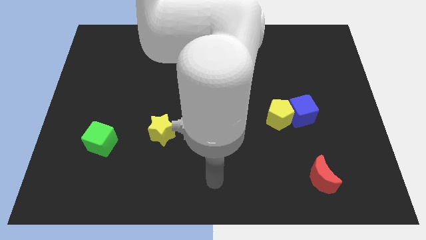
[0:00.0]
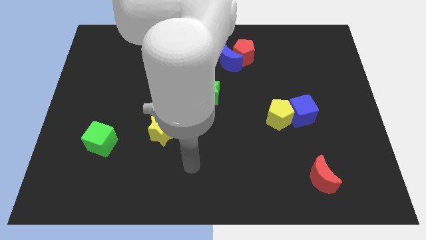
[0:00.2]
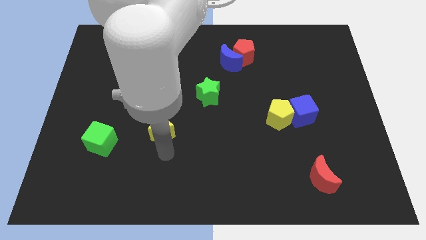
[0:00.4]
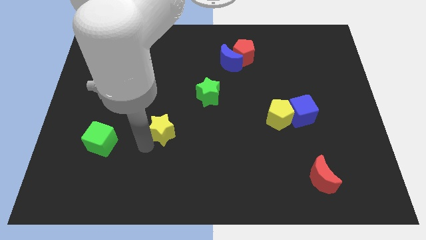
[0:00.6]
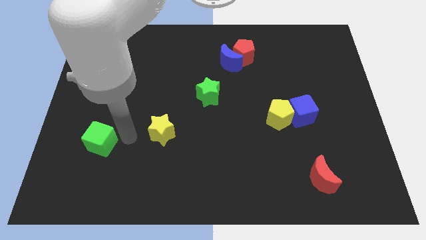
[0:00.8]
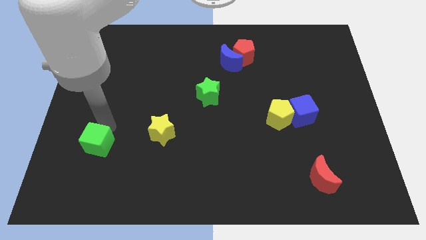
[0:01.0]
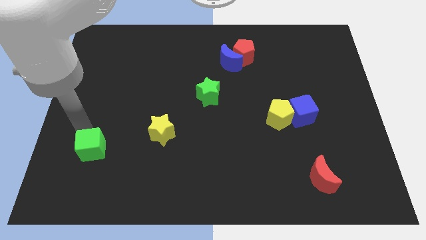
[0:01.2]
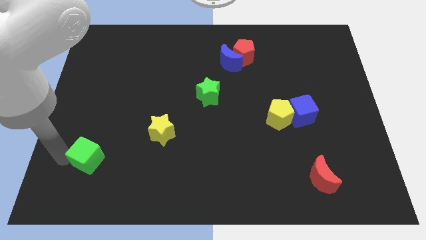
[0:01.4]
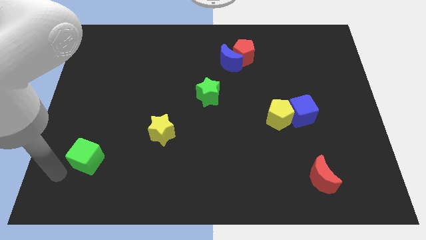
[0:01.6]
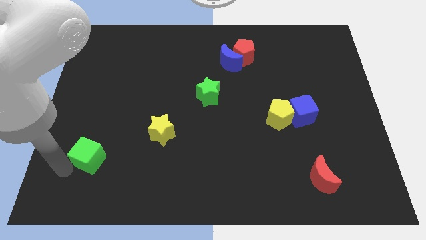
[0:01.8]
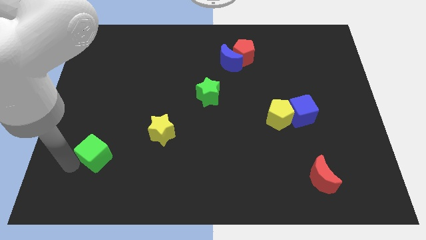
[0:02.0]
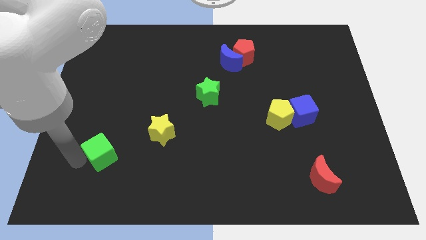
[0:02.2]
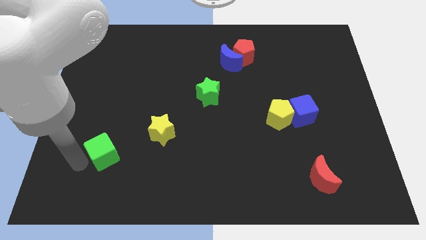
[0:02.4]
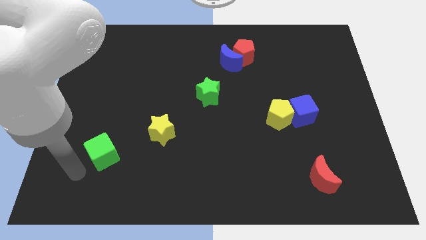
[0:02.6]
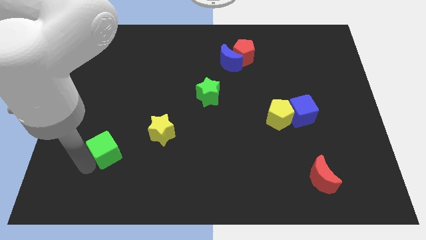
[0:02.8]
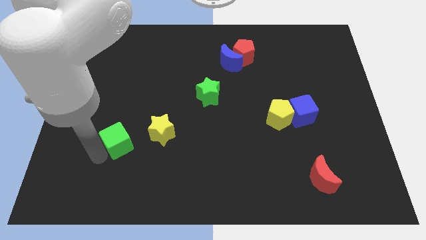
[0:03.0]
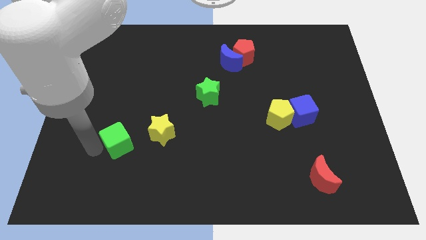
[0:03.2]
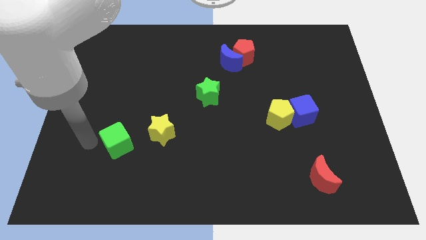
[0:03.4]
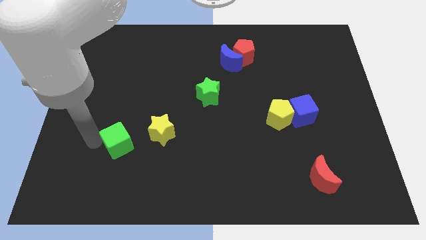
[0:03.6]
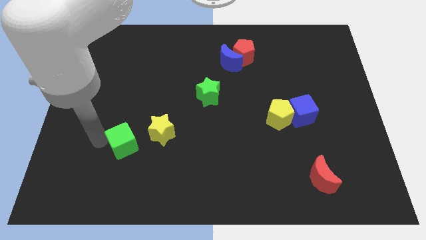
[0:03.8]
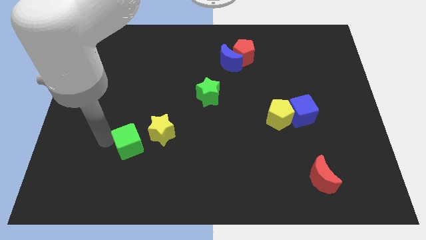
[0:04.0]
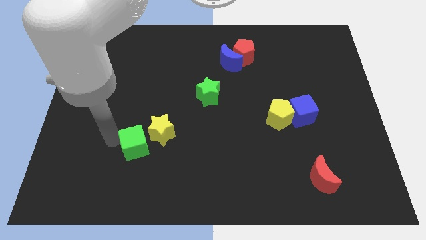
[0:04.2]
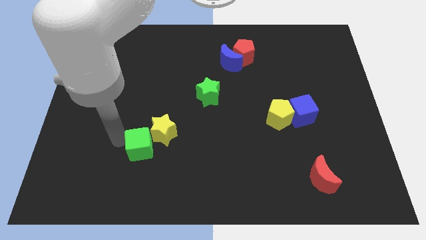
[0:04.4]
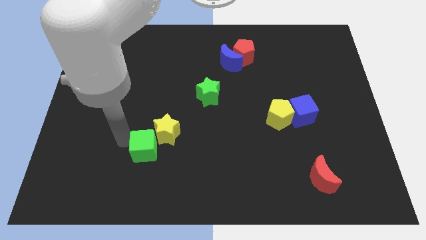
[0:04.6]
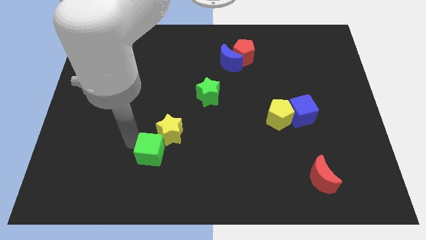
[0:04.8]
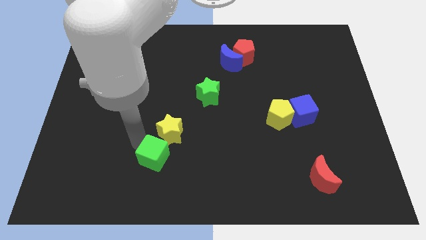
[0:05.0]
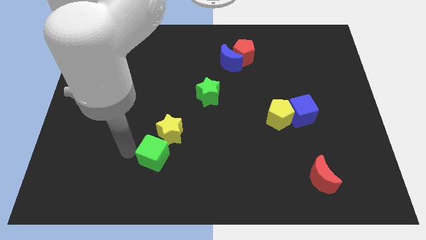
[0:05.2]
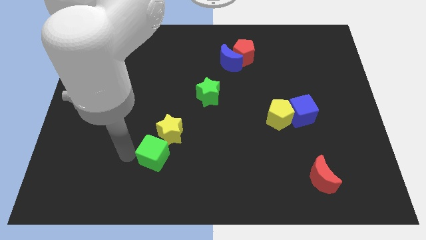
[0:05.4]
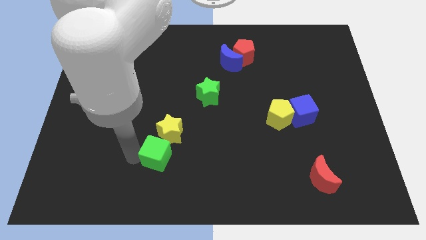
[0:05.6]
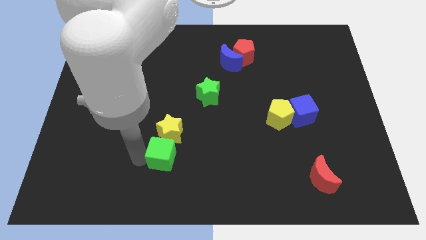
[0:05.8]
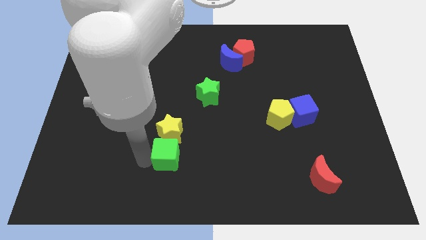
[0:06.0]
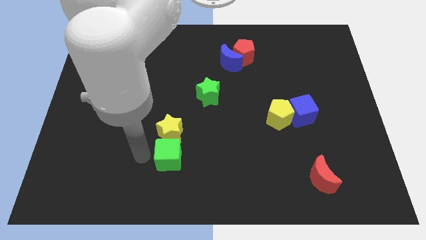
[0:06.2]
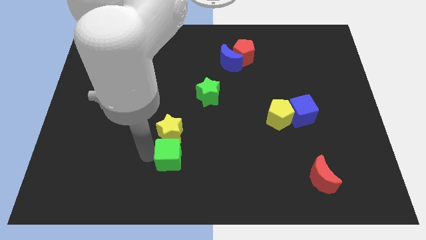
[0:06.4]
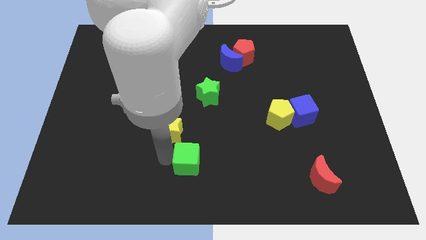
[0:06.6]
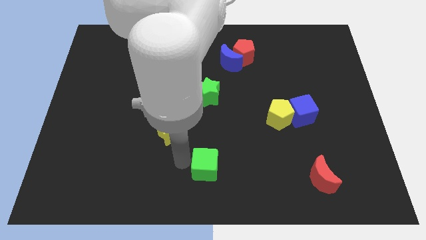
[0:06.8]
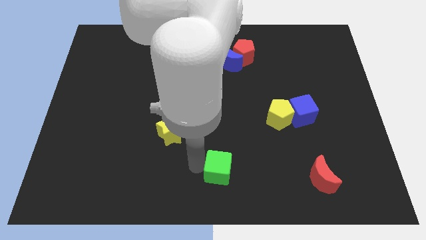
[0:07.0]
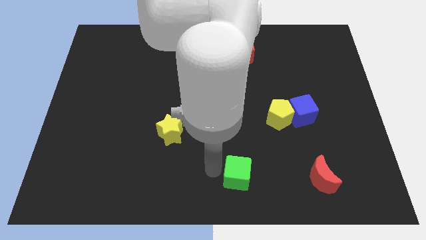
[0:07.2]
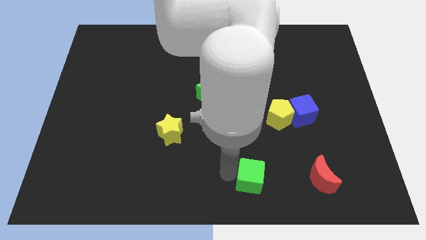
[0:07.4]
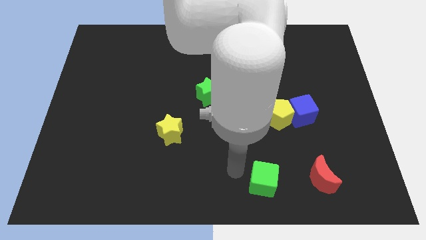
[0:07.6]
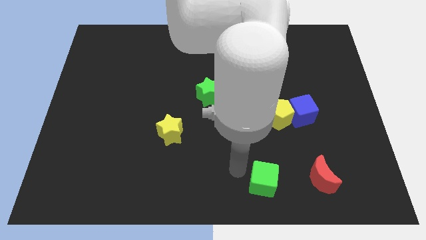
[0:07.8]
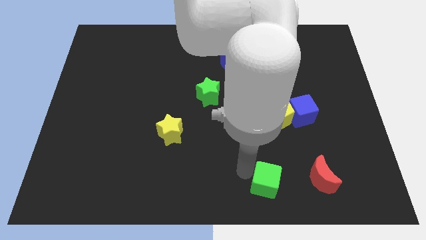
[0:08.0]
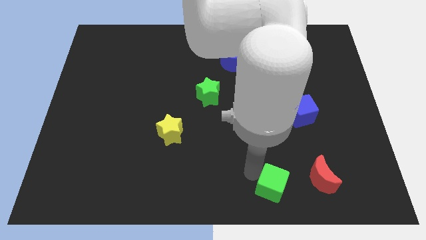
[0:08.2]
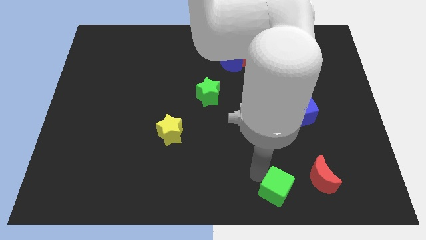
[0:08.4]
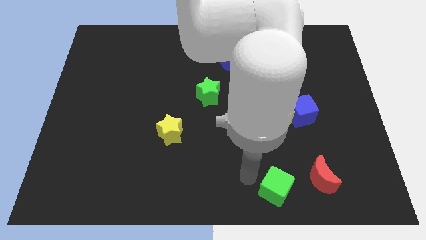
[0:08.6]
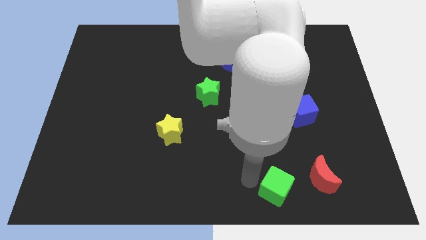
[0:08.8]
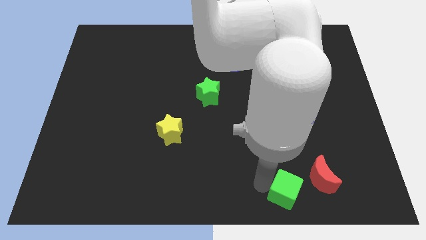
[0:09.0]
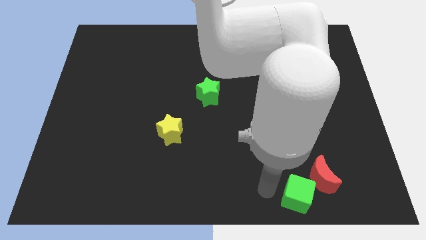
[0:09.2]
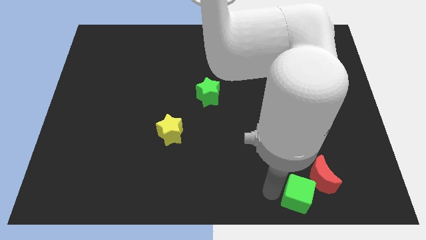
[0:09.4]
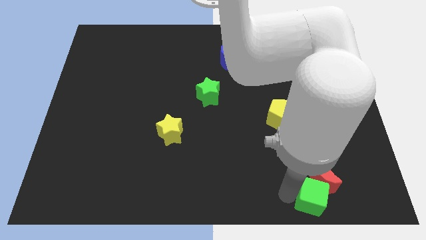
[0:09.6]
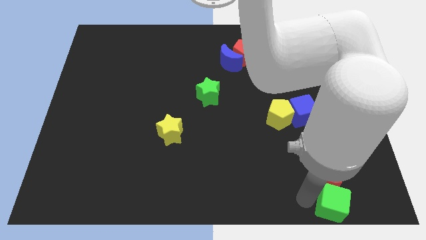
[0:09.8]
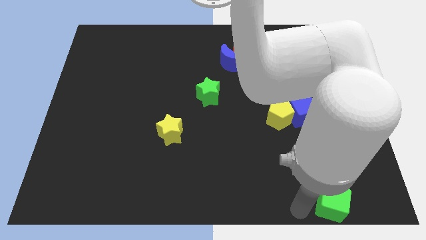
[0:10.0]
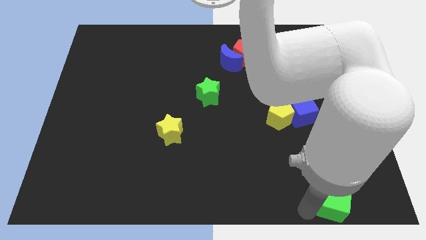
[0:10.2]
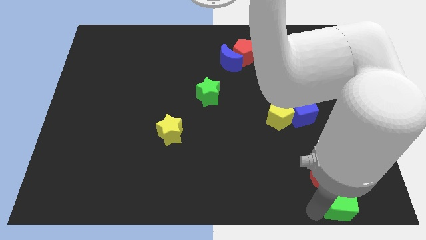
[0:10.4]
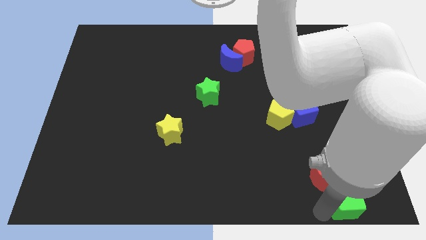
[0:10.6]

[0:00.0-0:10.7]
put the green cube to the bottom right corner

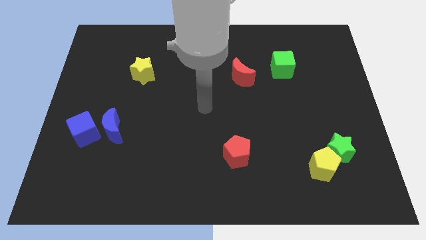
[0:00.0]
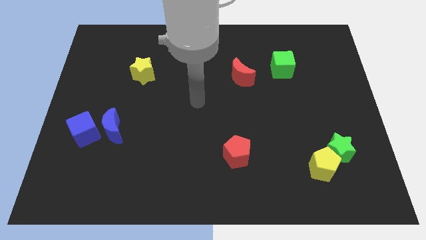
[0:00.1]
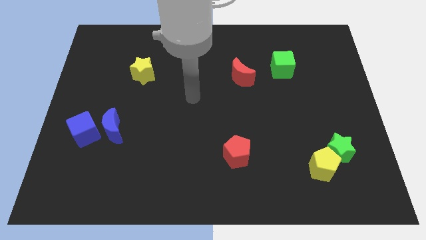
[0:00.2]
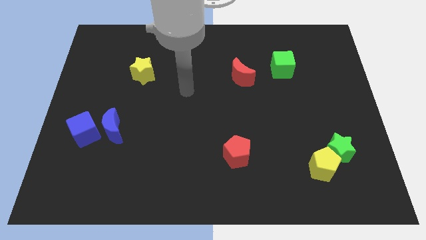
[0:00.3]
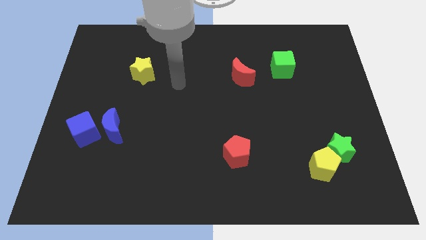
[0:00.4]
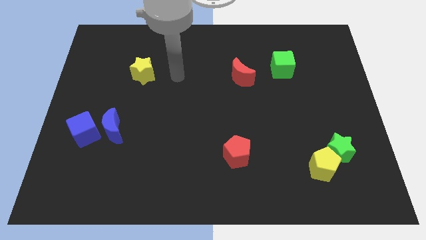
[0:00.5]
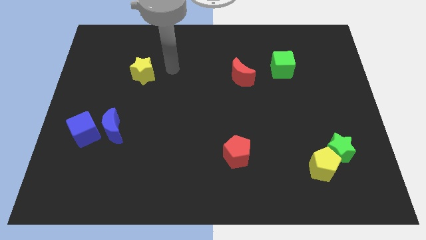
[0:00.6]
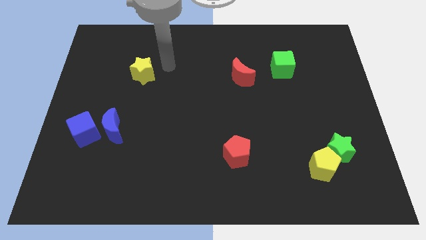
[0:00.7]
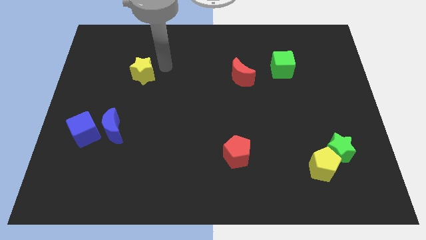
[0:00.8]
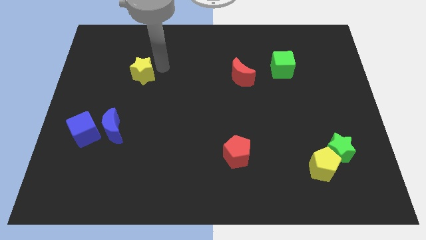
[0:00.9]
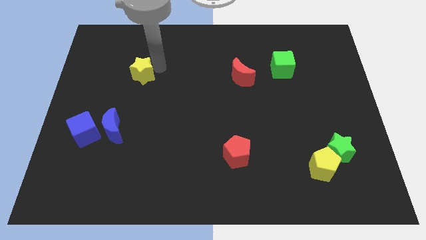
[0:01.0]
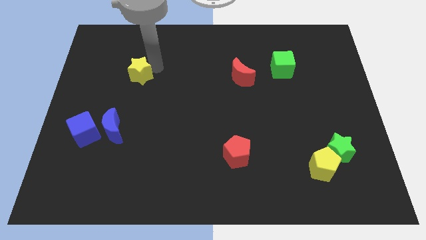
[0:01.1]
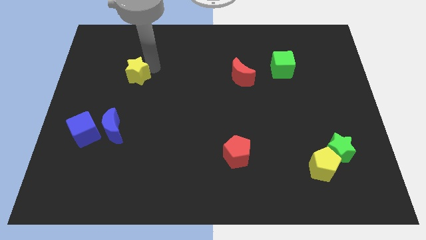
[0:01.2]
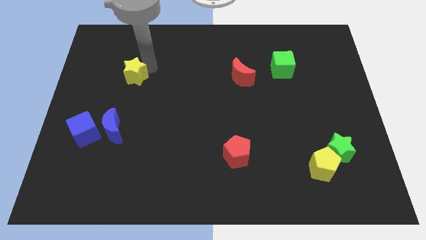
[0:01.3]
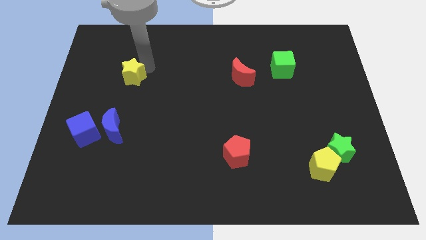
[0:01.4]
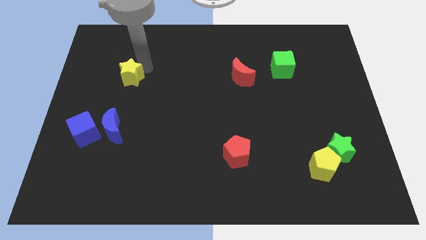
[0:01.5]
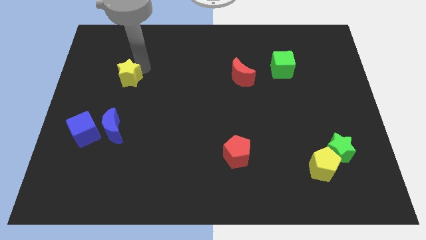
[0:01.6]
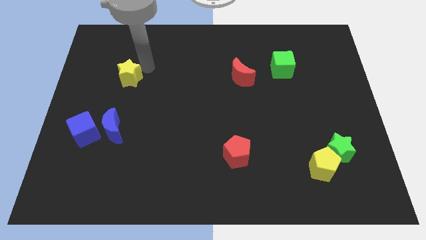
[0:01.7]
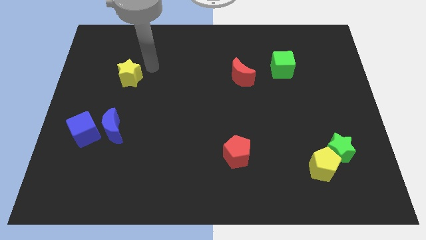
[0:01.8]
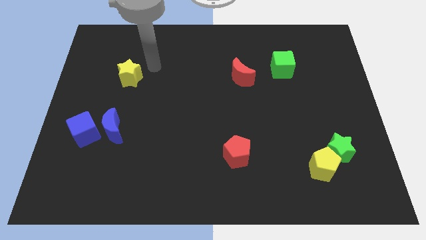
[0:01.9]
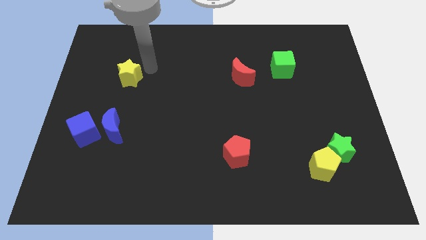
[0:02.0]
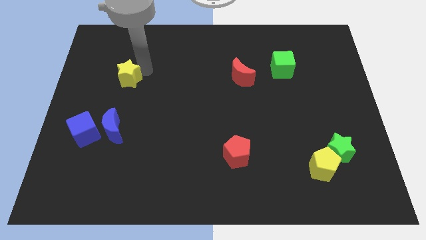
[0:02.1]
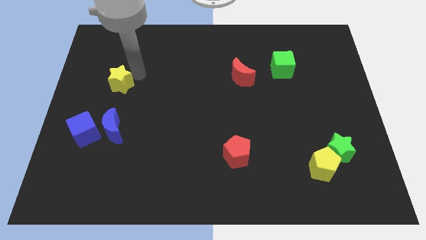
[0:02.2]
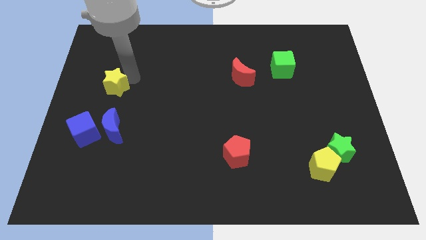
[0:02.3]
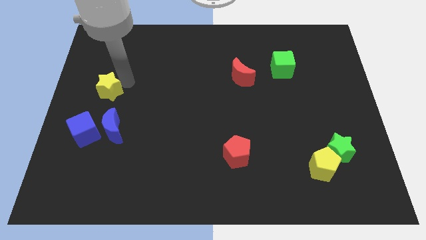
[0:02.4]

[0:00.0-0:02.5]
slide the yellow star to the left side of the board
